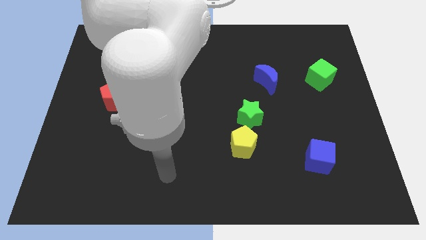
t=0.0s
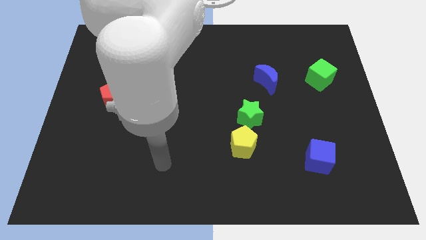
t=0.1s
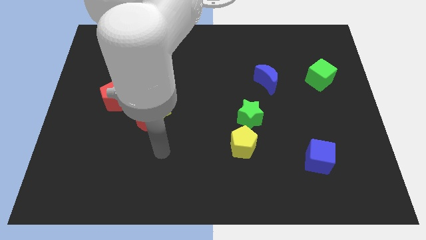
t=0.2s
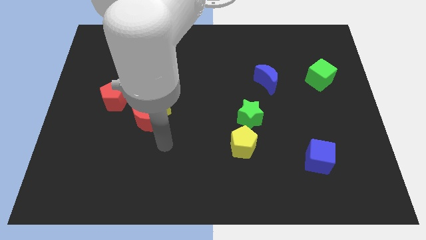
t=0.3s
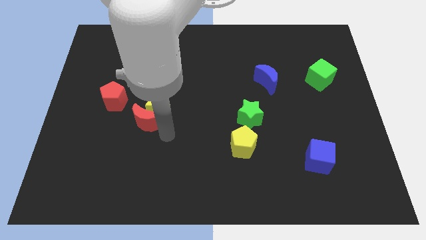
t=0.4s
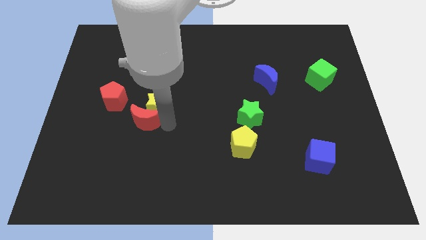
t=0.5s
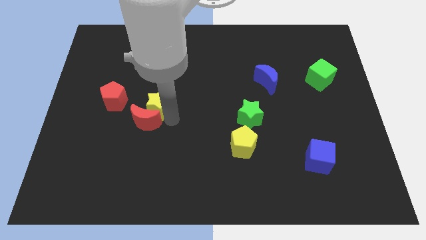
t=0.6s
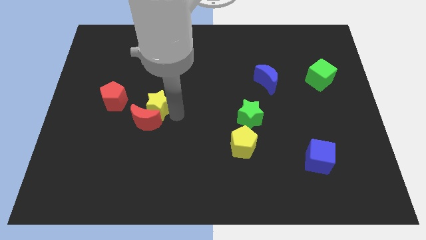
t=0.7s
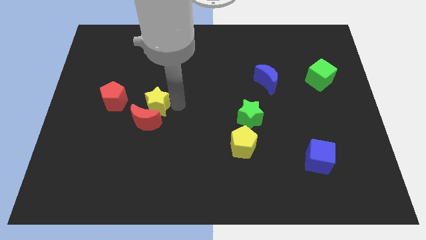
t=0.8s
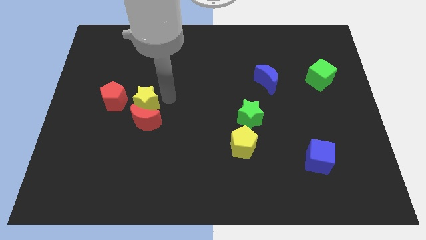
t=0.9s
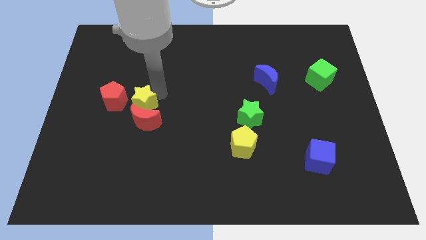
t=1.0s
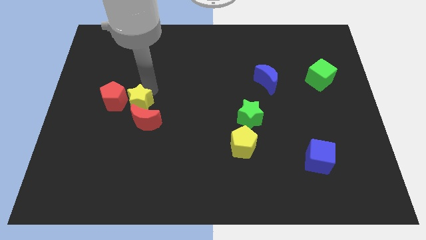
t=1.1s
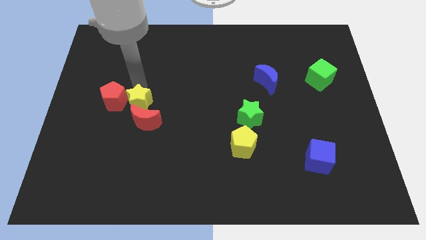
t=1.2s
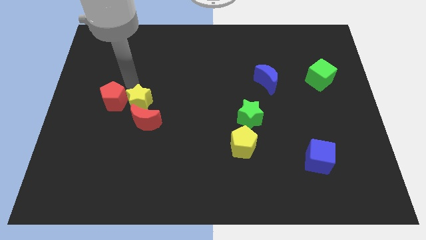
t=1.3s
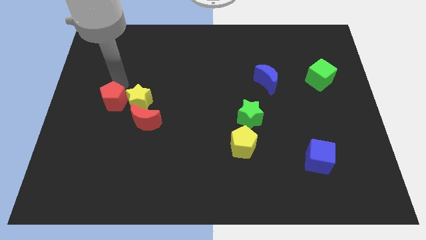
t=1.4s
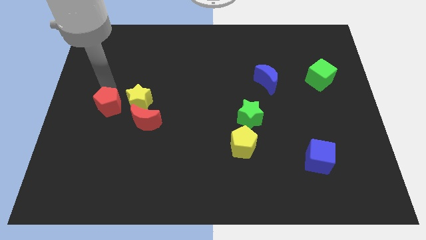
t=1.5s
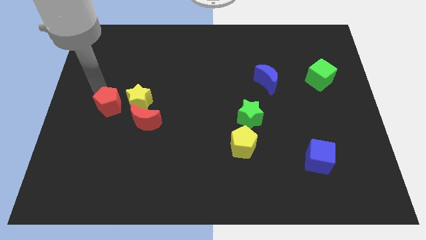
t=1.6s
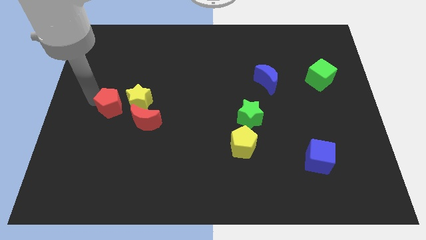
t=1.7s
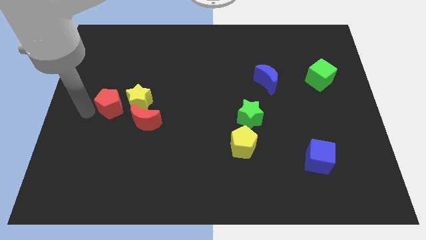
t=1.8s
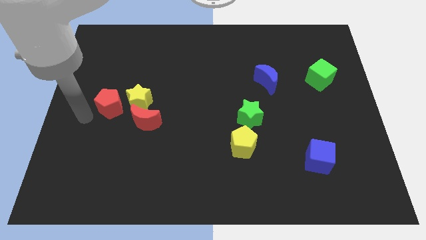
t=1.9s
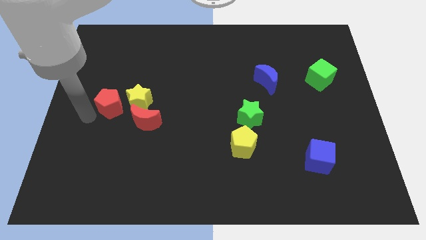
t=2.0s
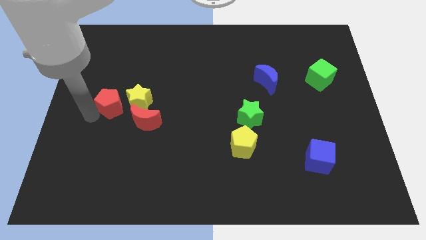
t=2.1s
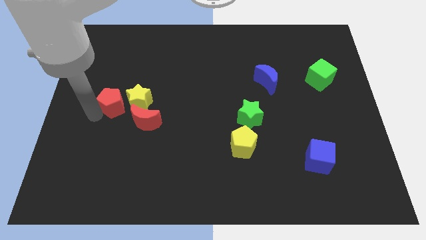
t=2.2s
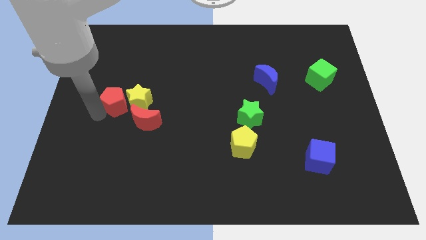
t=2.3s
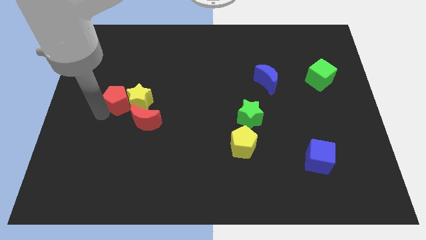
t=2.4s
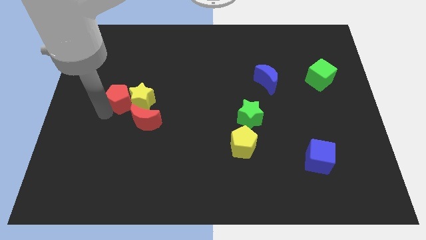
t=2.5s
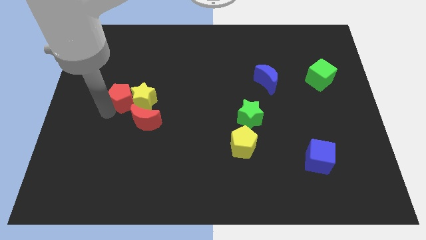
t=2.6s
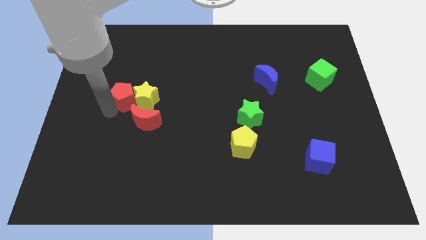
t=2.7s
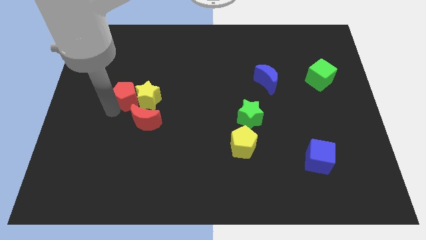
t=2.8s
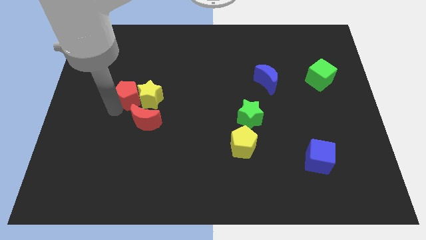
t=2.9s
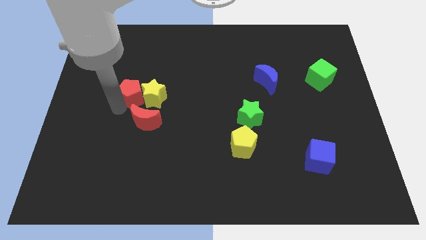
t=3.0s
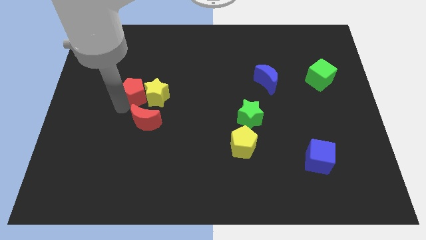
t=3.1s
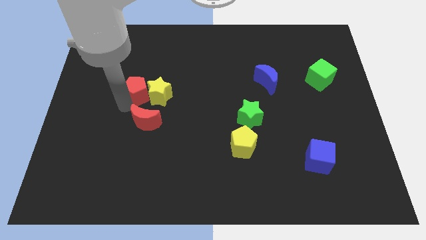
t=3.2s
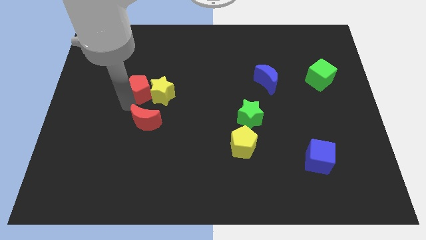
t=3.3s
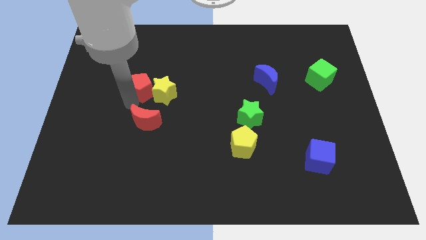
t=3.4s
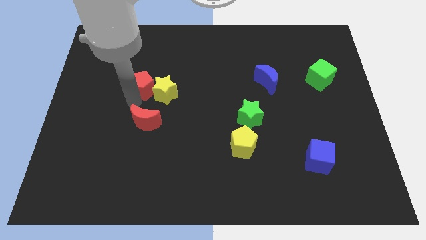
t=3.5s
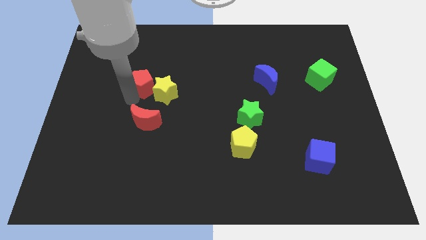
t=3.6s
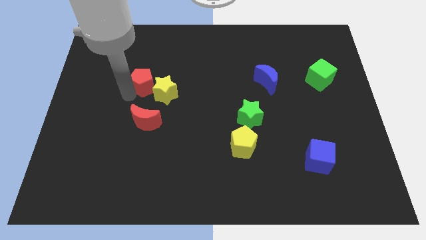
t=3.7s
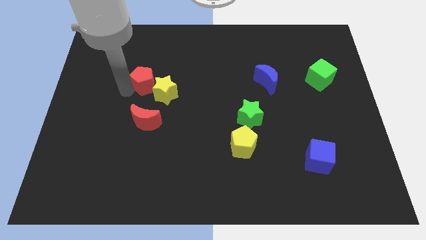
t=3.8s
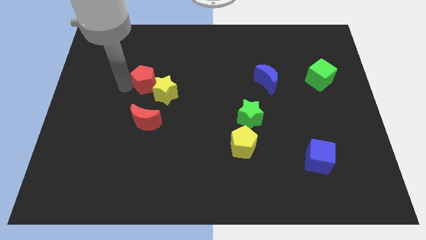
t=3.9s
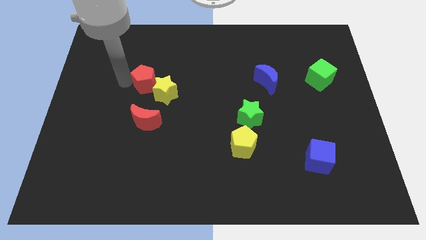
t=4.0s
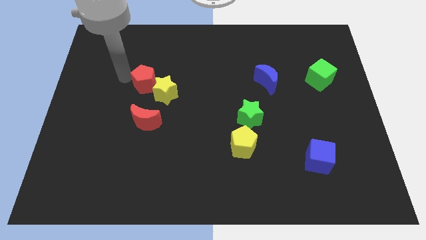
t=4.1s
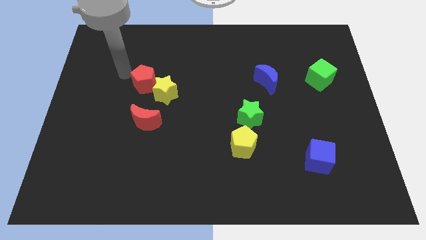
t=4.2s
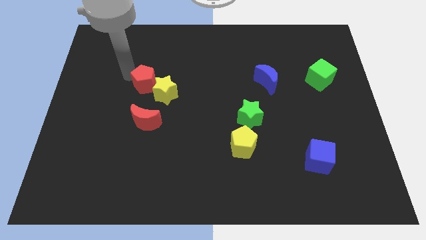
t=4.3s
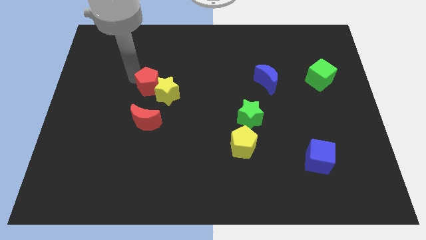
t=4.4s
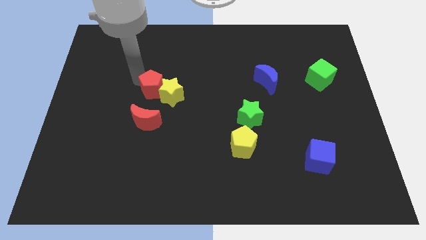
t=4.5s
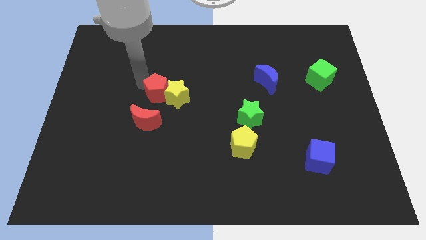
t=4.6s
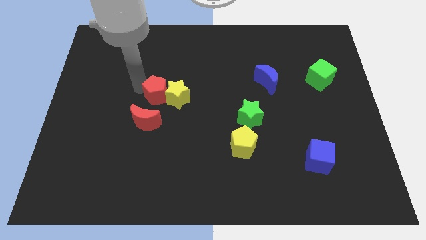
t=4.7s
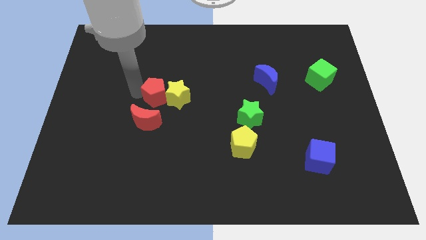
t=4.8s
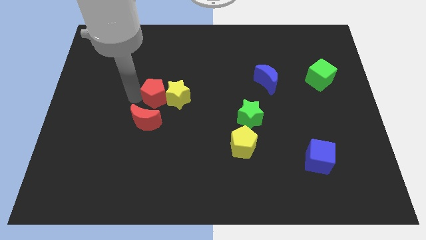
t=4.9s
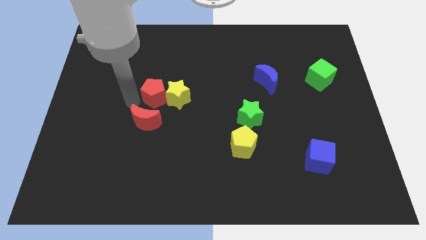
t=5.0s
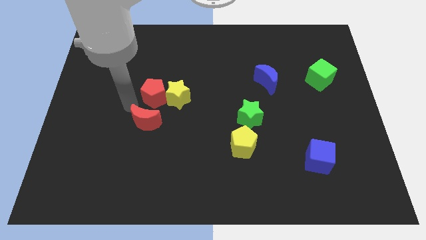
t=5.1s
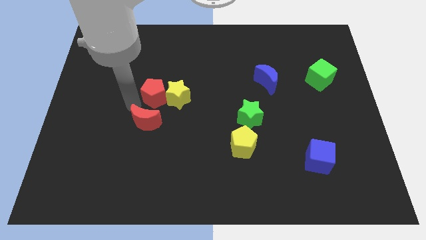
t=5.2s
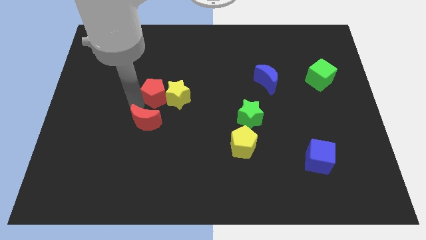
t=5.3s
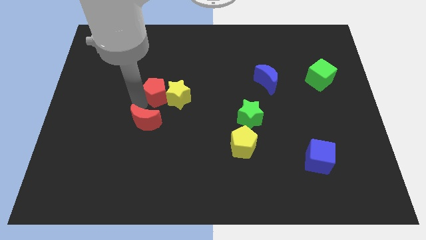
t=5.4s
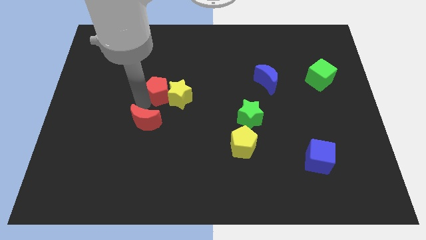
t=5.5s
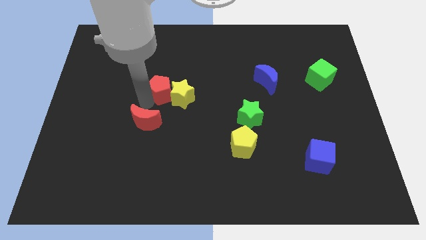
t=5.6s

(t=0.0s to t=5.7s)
slide the red pentagon to the center of the board

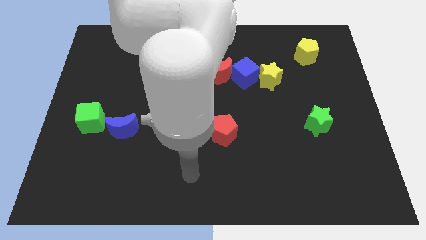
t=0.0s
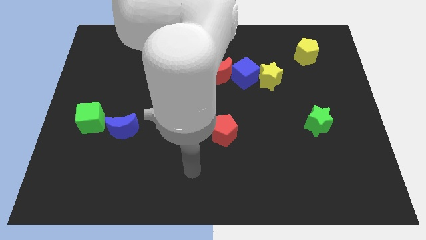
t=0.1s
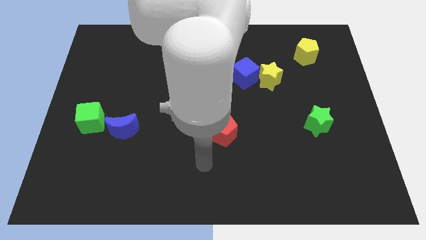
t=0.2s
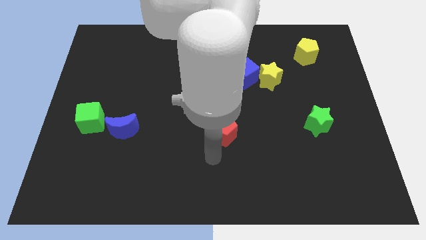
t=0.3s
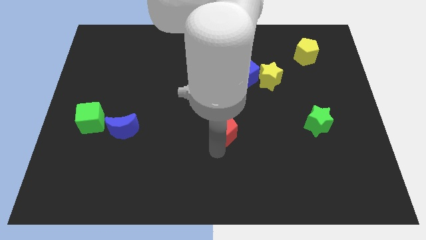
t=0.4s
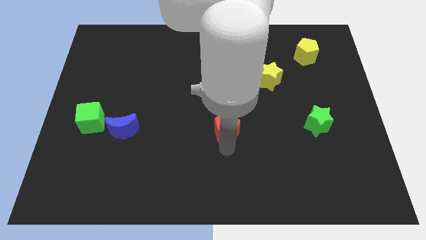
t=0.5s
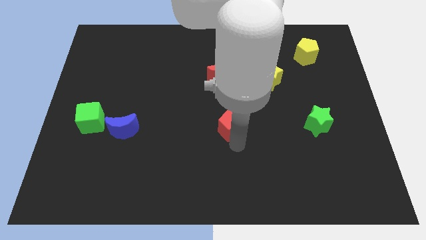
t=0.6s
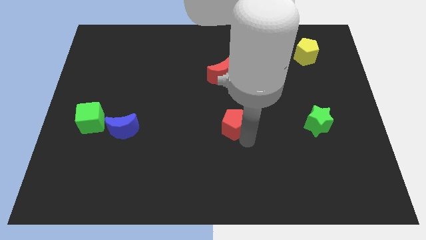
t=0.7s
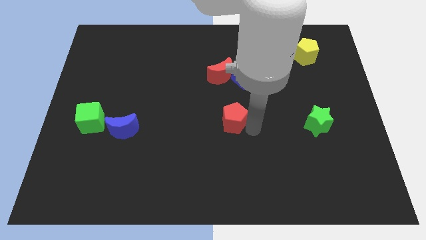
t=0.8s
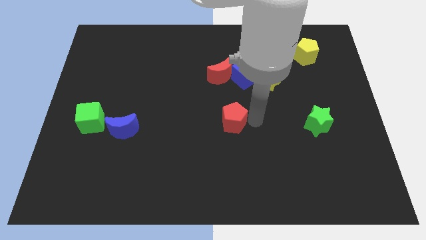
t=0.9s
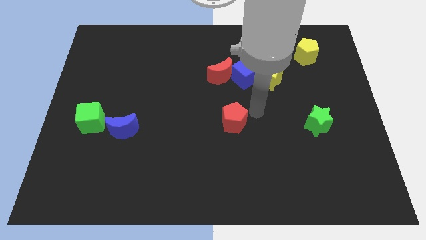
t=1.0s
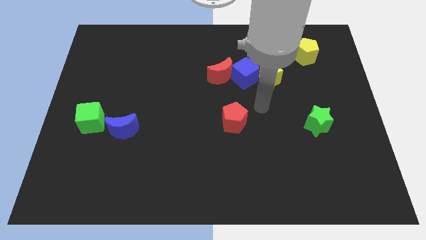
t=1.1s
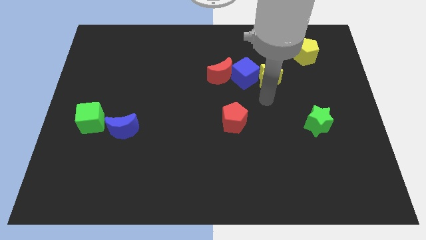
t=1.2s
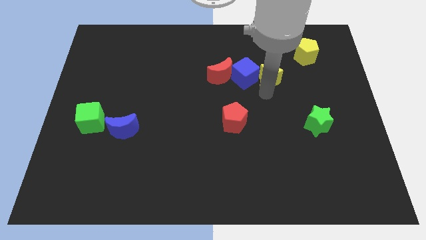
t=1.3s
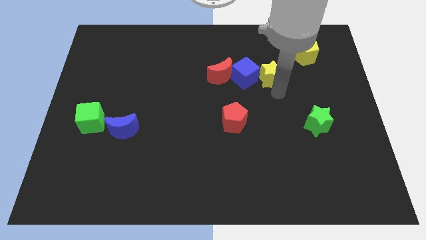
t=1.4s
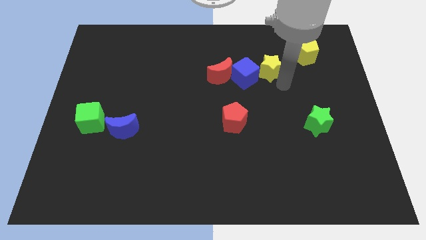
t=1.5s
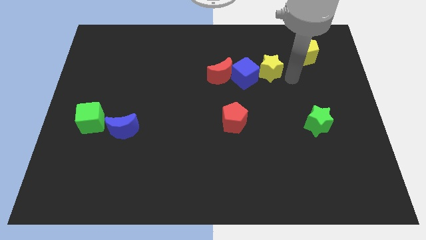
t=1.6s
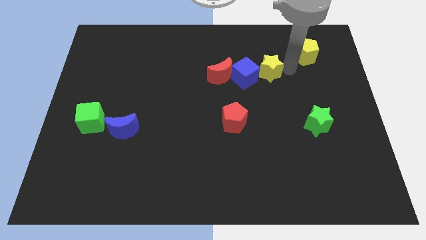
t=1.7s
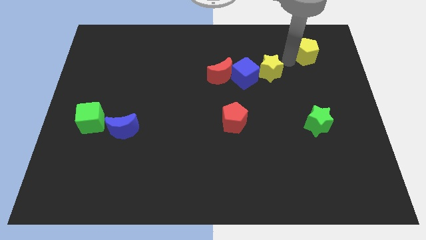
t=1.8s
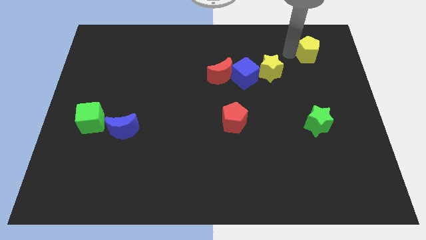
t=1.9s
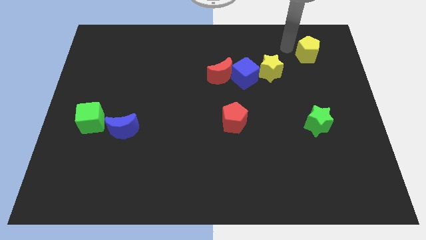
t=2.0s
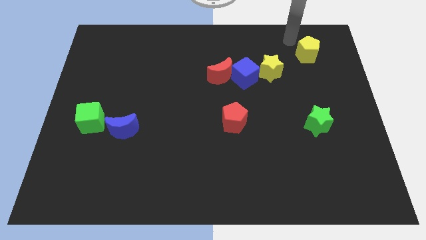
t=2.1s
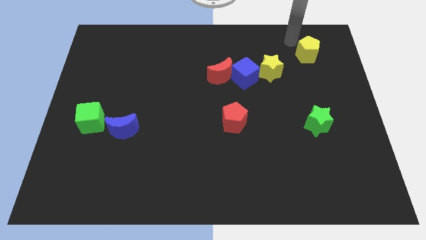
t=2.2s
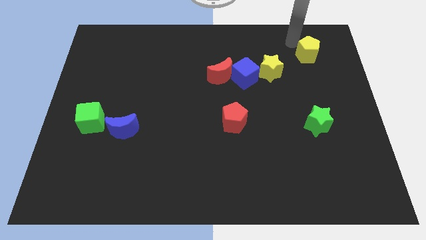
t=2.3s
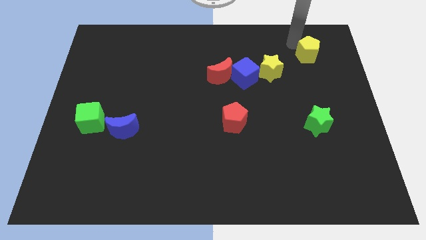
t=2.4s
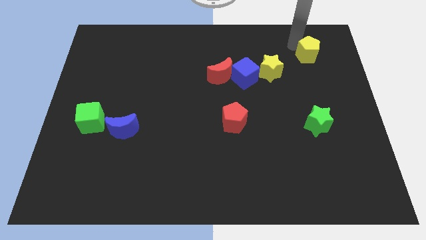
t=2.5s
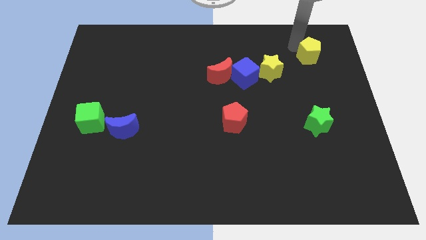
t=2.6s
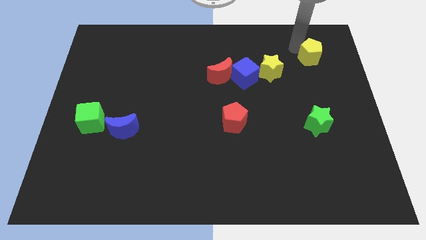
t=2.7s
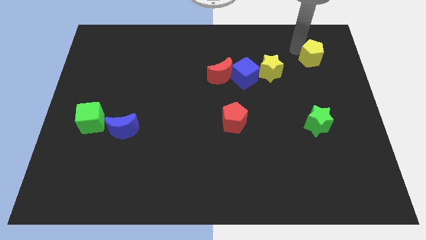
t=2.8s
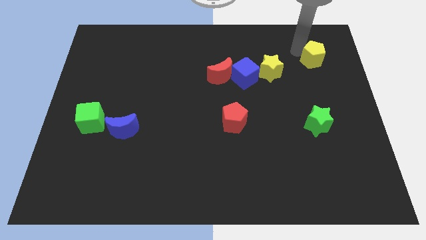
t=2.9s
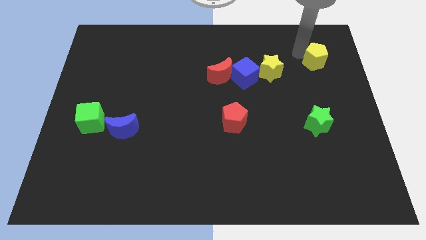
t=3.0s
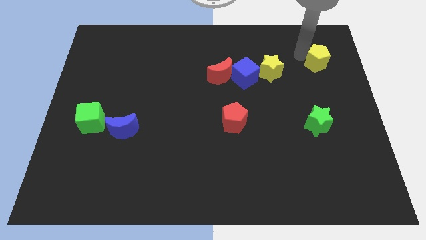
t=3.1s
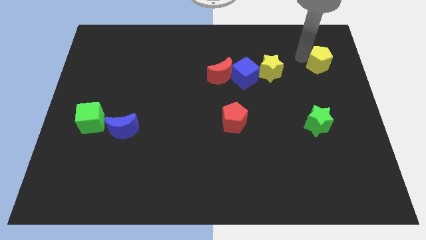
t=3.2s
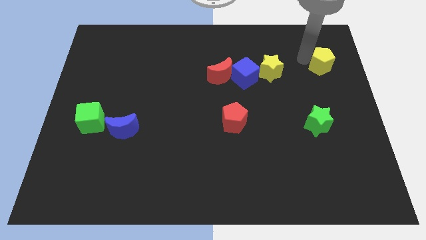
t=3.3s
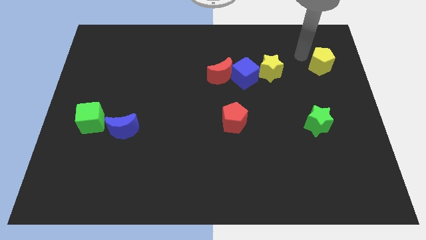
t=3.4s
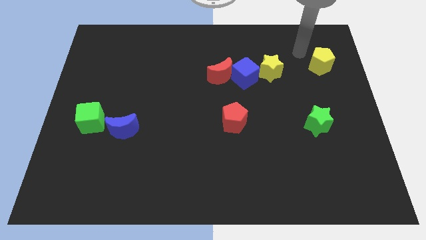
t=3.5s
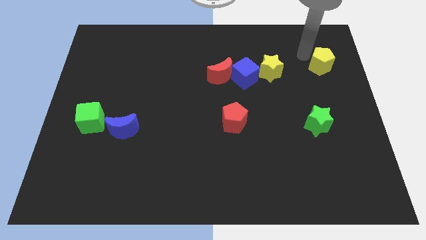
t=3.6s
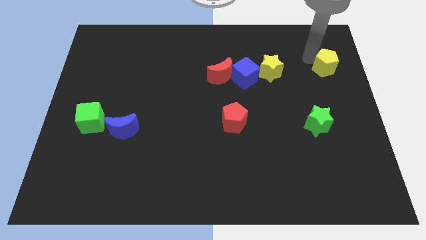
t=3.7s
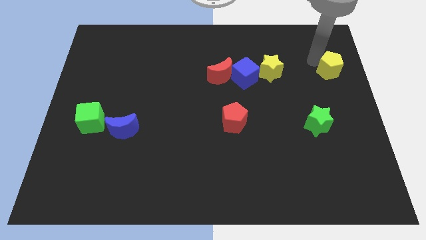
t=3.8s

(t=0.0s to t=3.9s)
move the yellow pentagon to the right side
